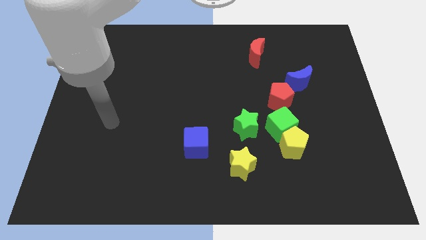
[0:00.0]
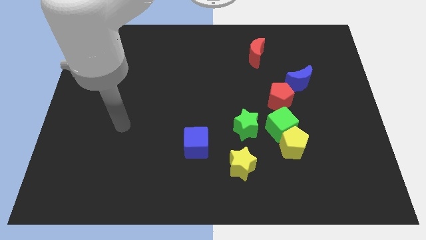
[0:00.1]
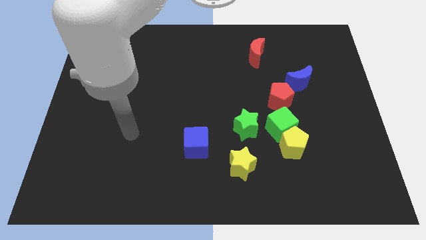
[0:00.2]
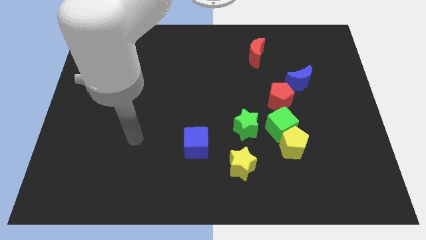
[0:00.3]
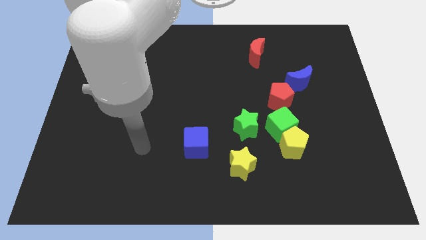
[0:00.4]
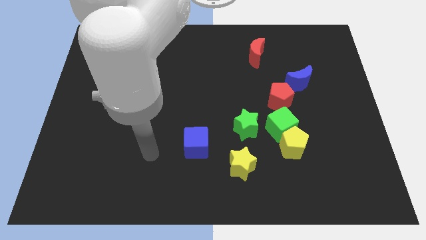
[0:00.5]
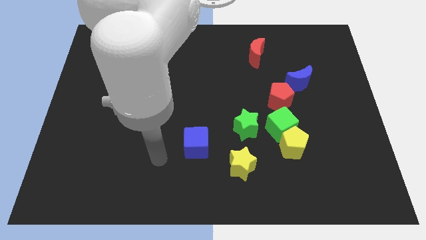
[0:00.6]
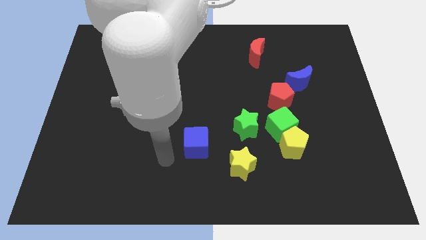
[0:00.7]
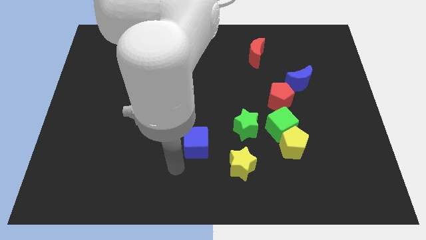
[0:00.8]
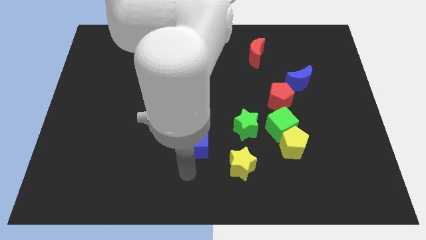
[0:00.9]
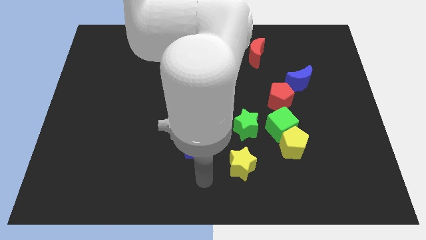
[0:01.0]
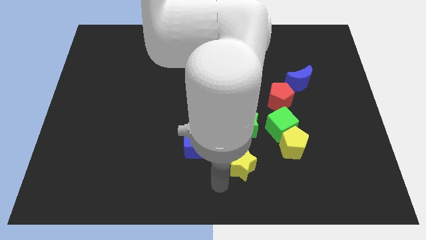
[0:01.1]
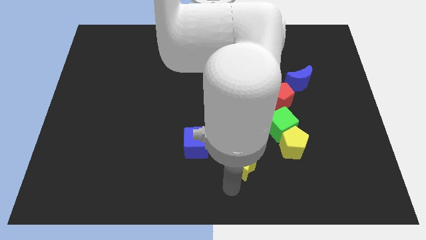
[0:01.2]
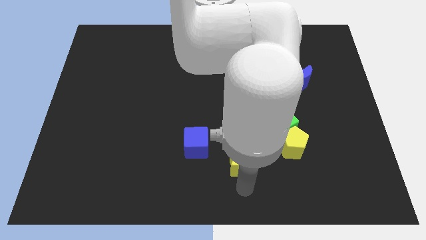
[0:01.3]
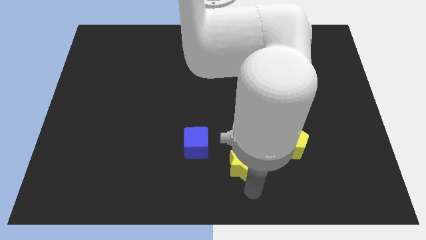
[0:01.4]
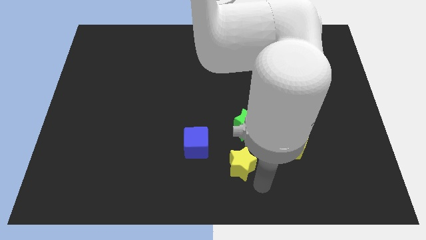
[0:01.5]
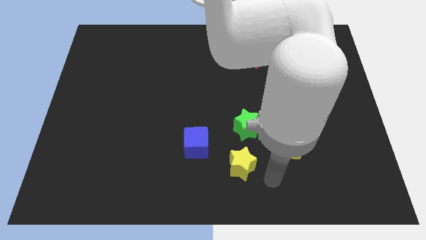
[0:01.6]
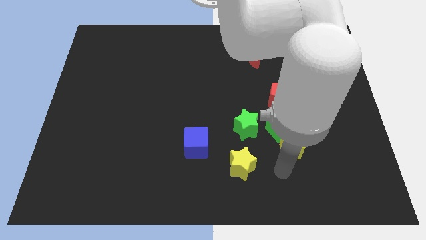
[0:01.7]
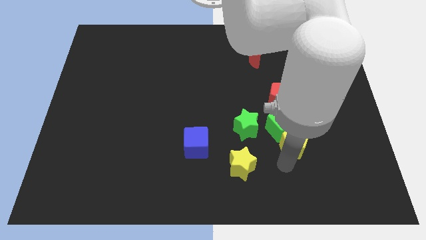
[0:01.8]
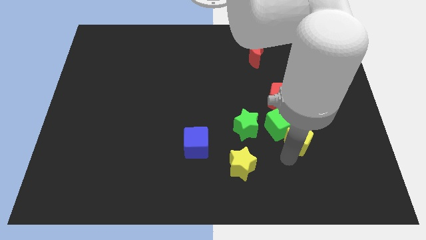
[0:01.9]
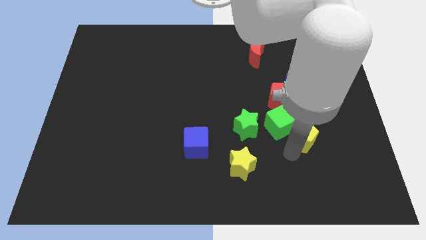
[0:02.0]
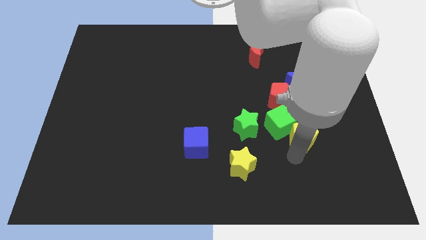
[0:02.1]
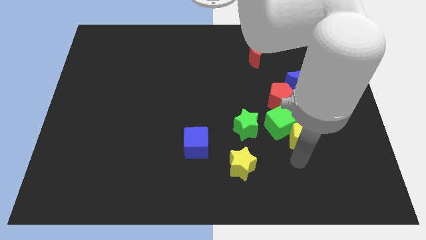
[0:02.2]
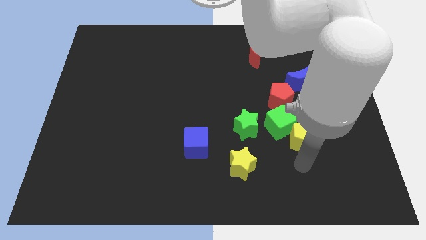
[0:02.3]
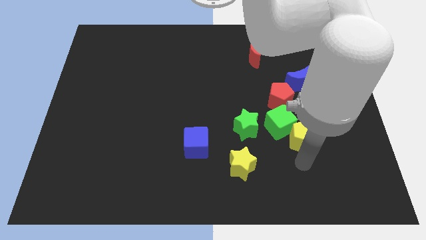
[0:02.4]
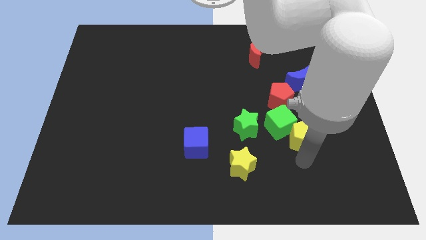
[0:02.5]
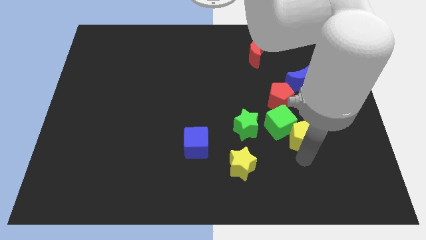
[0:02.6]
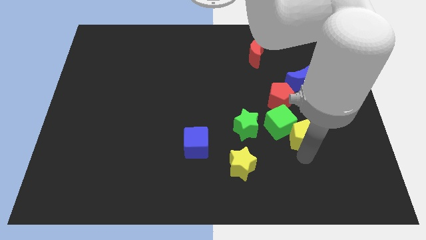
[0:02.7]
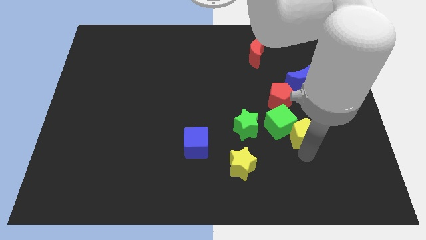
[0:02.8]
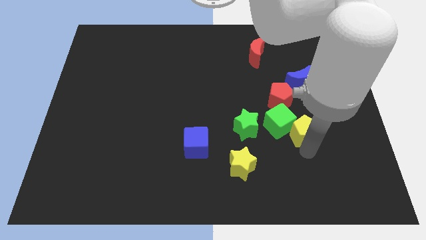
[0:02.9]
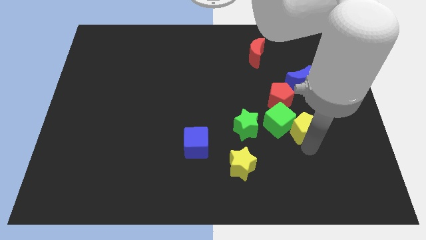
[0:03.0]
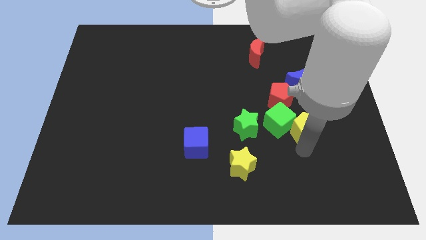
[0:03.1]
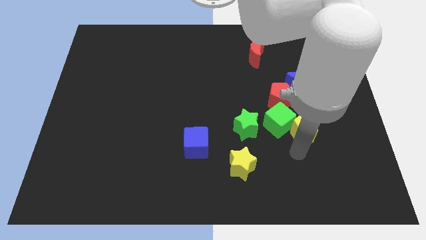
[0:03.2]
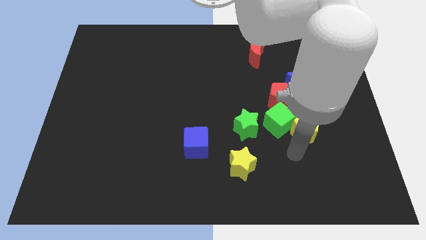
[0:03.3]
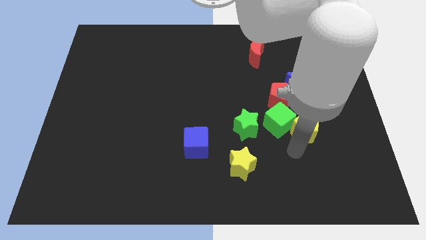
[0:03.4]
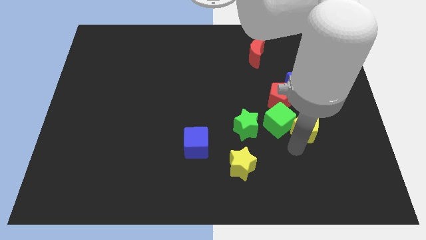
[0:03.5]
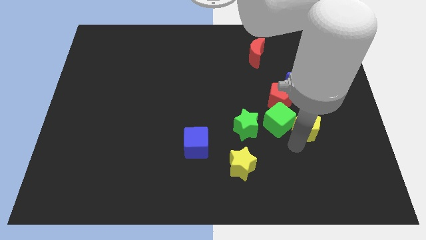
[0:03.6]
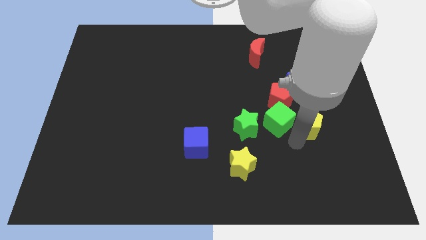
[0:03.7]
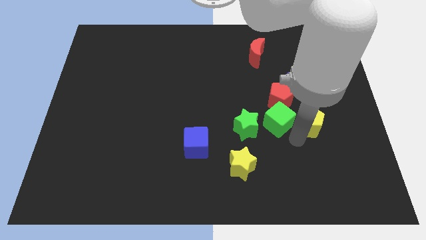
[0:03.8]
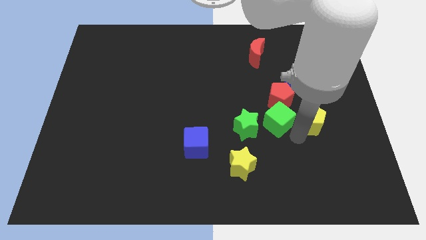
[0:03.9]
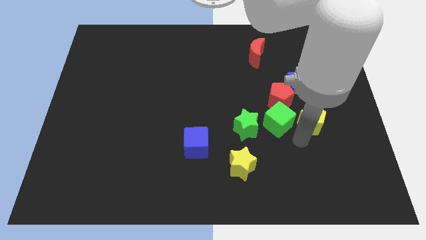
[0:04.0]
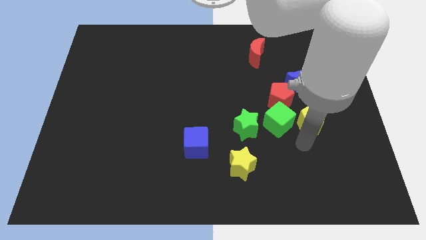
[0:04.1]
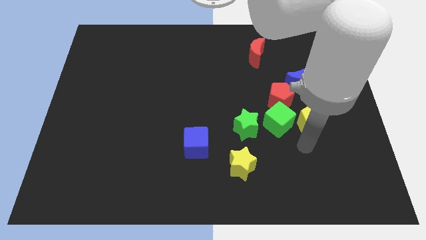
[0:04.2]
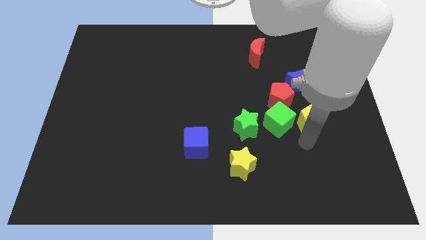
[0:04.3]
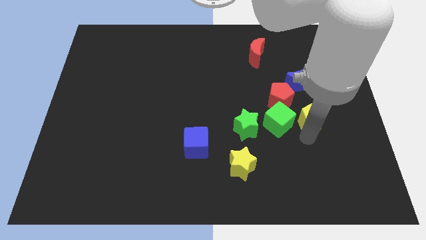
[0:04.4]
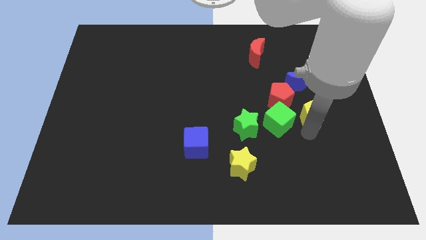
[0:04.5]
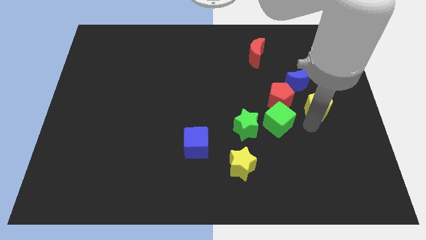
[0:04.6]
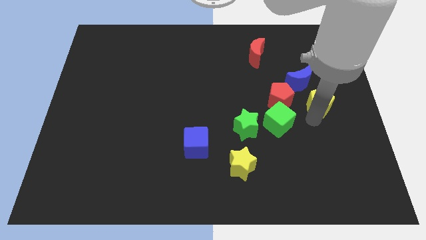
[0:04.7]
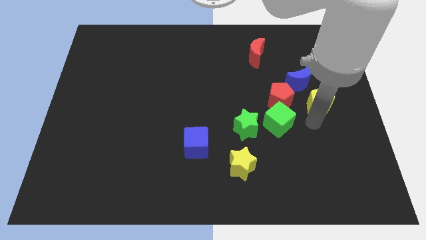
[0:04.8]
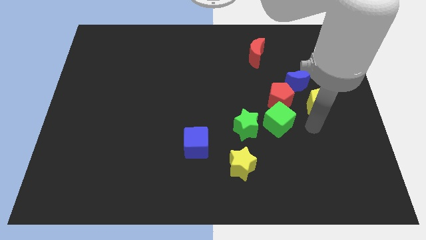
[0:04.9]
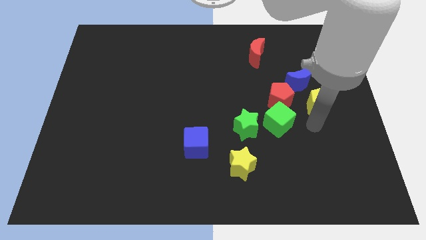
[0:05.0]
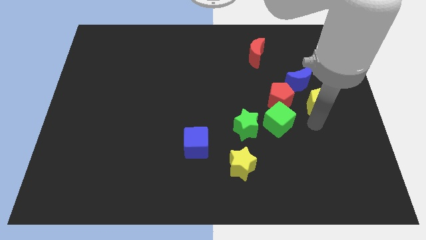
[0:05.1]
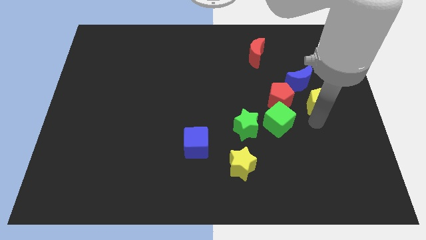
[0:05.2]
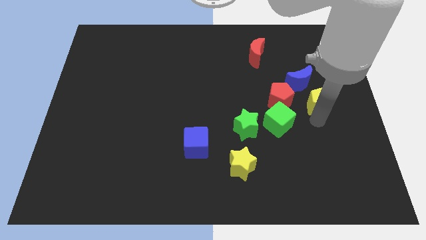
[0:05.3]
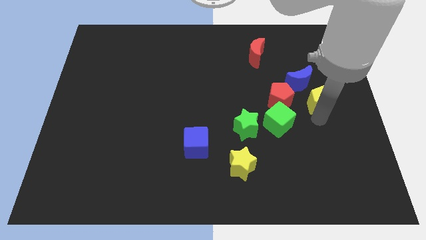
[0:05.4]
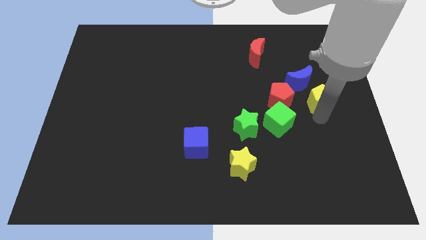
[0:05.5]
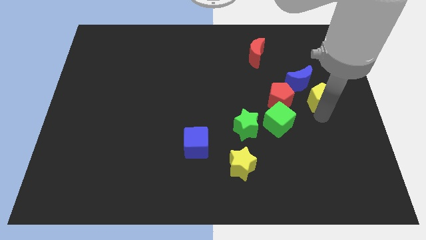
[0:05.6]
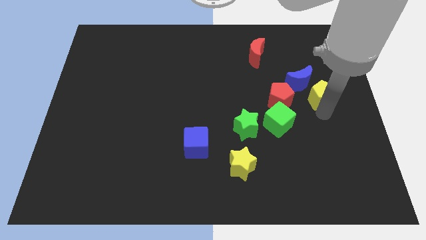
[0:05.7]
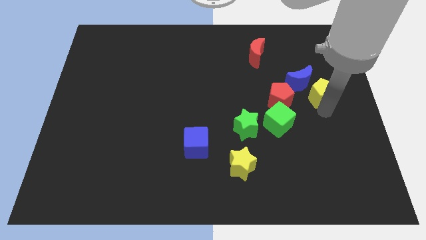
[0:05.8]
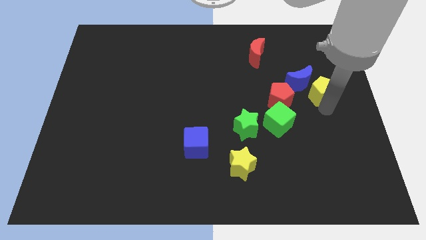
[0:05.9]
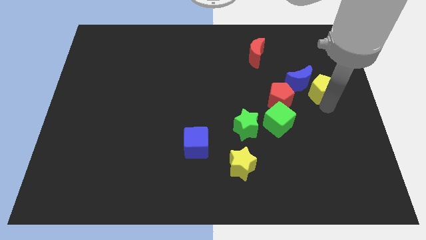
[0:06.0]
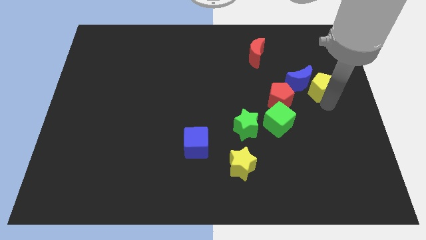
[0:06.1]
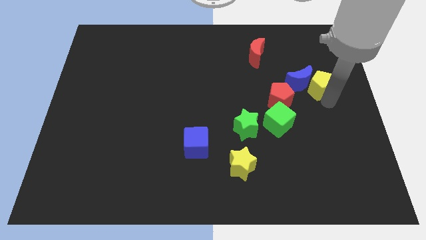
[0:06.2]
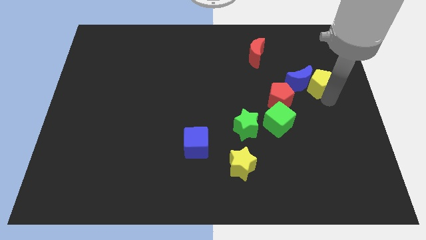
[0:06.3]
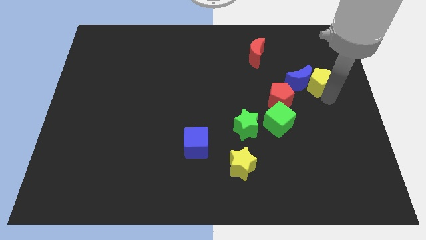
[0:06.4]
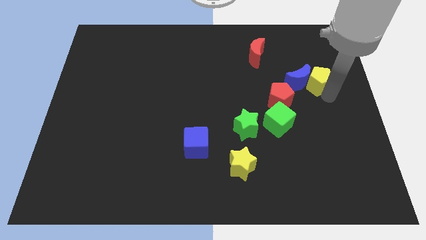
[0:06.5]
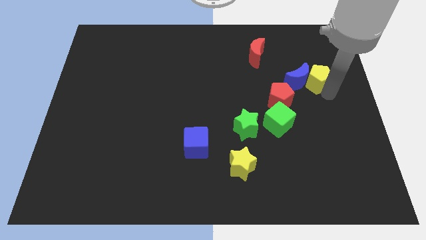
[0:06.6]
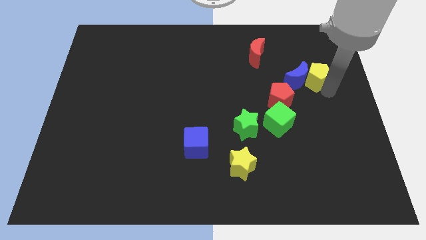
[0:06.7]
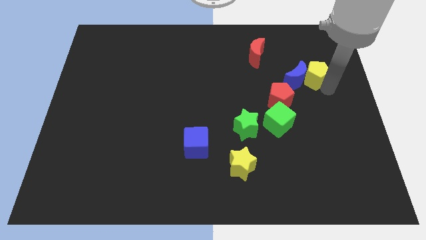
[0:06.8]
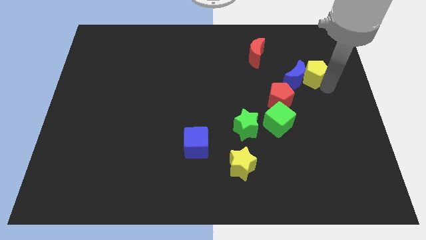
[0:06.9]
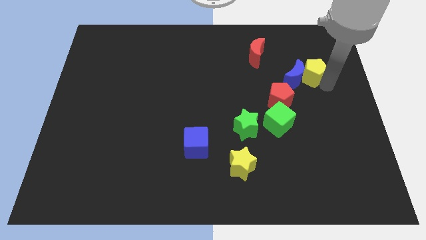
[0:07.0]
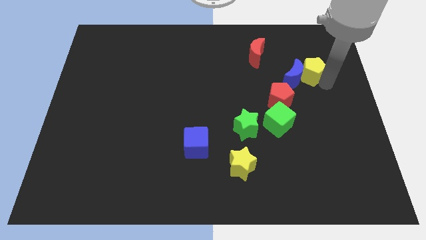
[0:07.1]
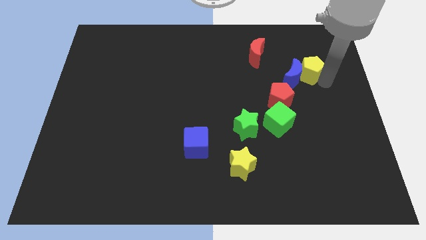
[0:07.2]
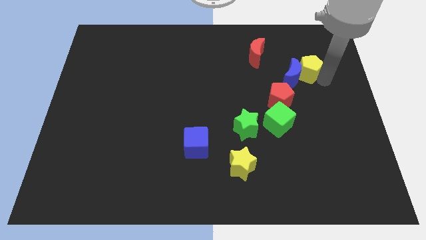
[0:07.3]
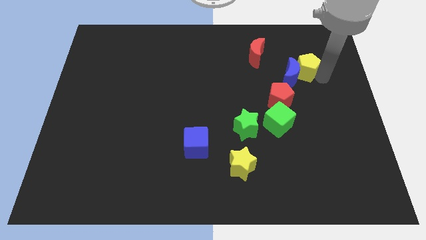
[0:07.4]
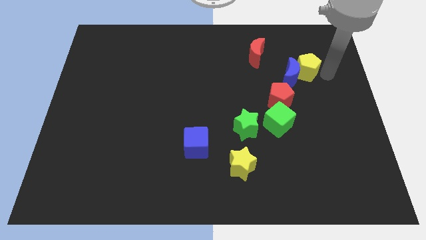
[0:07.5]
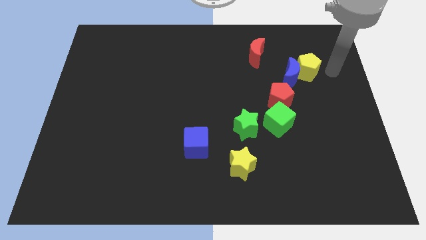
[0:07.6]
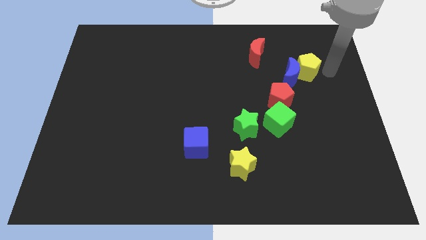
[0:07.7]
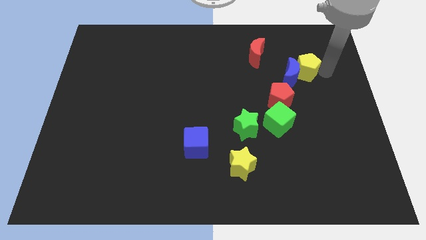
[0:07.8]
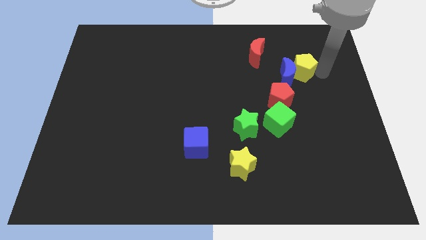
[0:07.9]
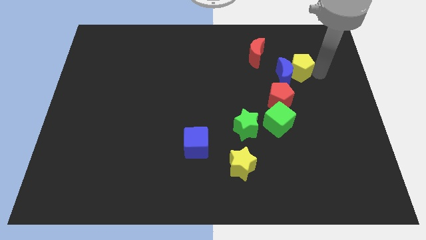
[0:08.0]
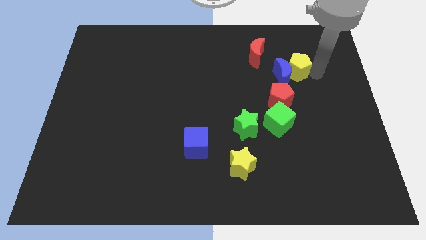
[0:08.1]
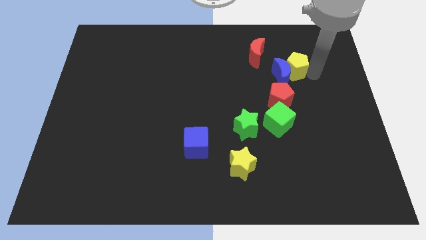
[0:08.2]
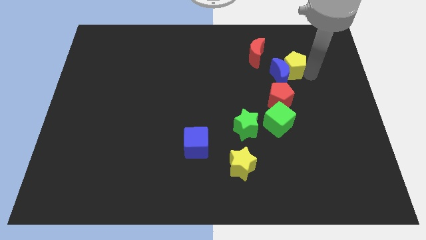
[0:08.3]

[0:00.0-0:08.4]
slide the yellow pentagon to the top side of the red pentagon
